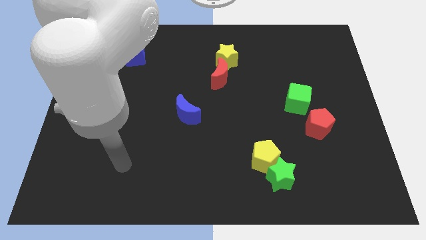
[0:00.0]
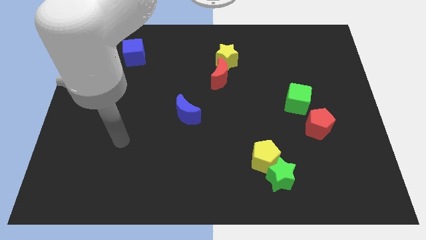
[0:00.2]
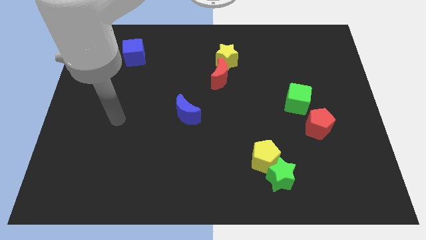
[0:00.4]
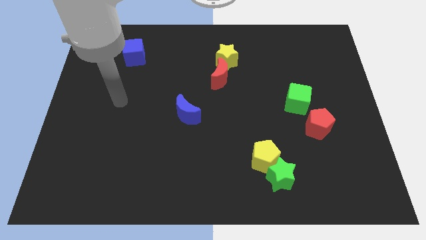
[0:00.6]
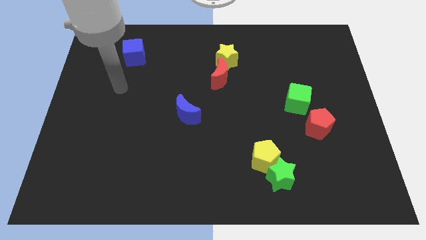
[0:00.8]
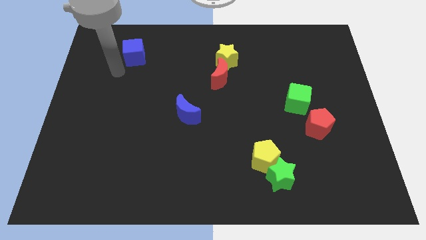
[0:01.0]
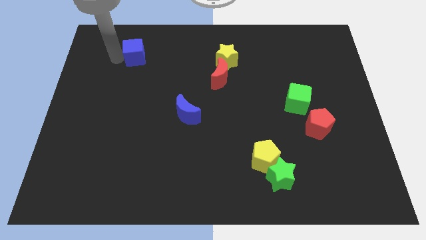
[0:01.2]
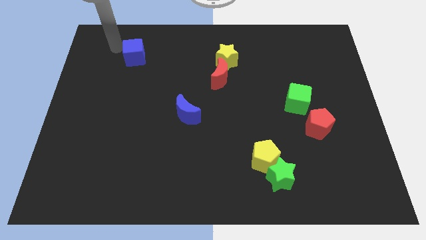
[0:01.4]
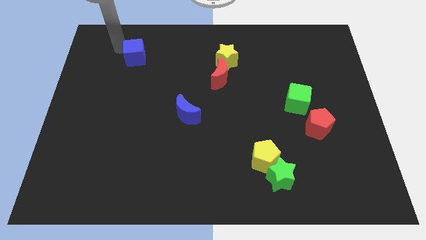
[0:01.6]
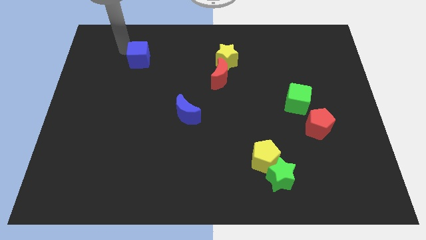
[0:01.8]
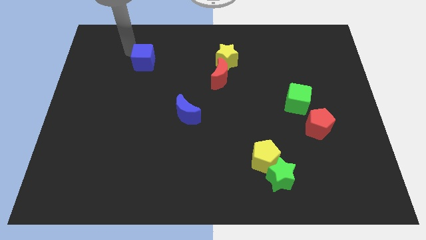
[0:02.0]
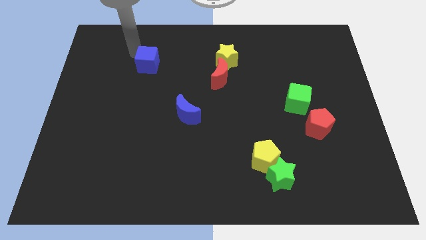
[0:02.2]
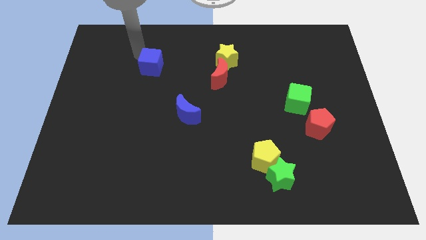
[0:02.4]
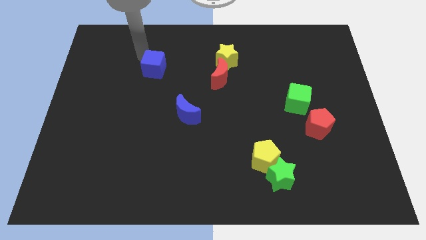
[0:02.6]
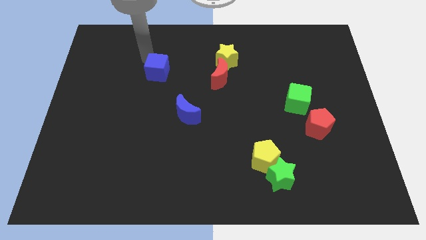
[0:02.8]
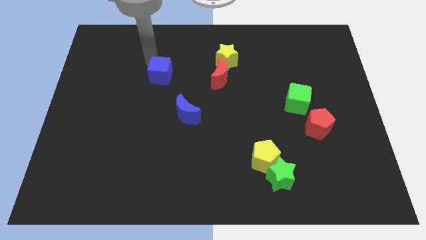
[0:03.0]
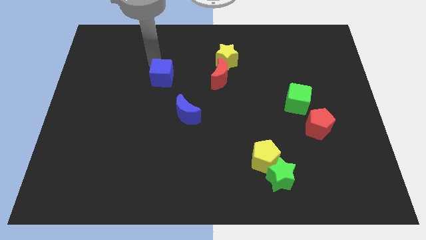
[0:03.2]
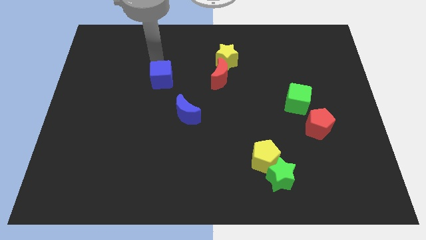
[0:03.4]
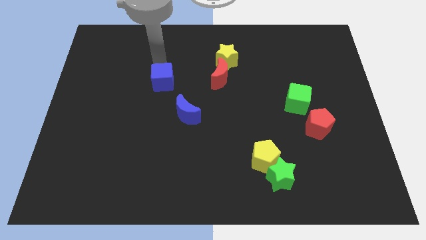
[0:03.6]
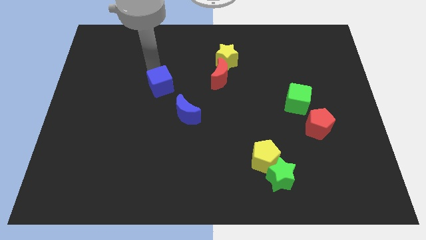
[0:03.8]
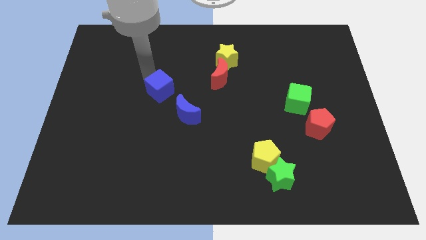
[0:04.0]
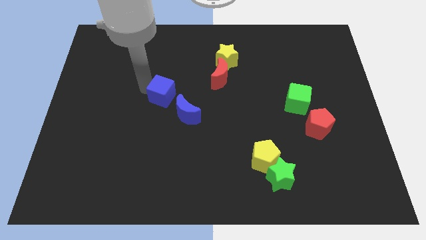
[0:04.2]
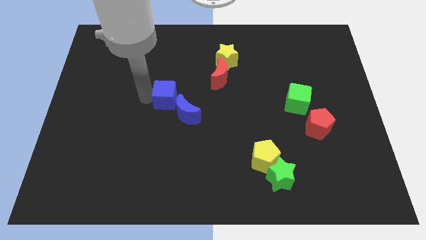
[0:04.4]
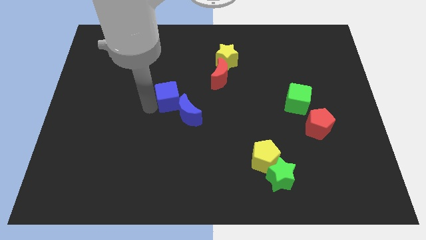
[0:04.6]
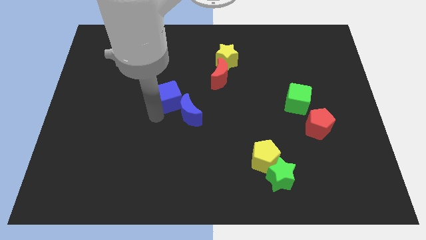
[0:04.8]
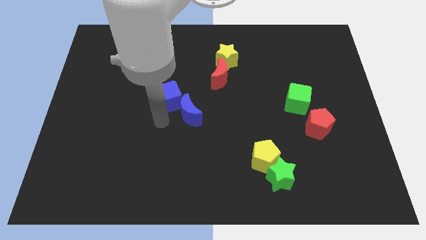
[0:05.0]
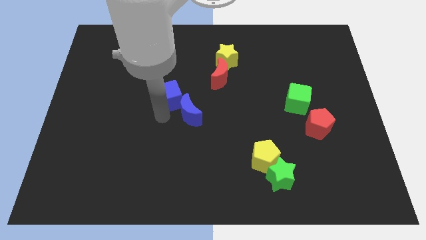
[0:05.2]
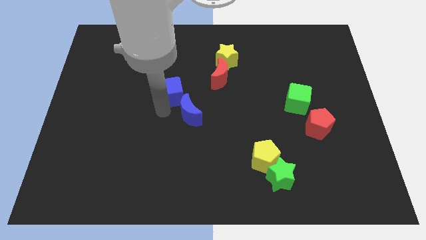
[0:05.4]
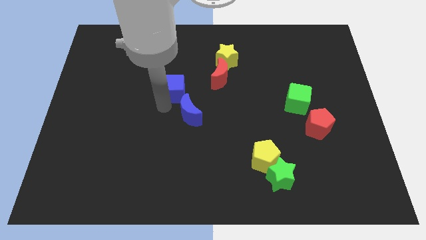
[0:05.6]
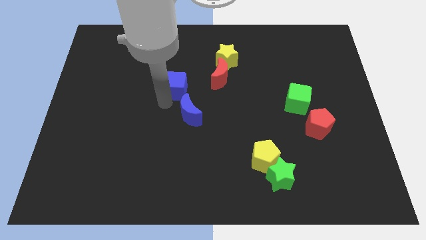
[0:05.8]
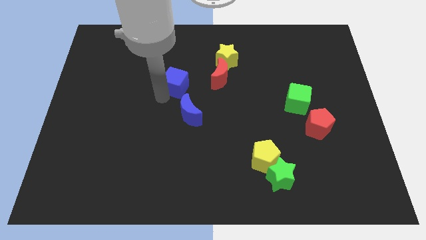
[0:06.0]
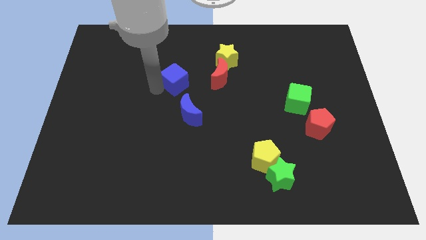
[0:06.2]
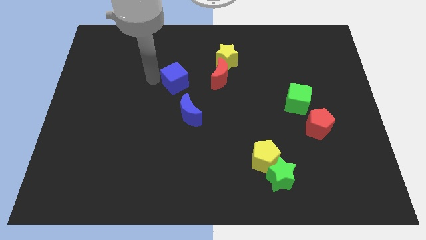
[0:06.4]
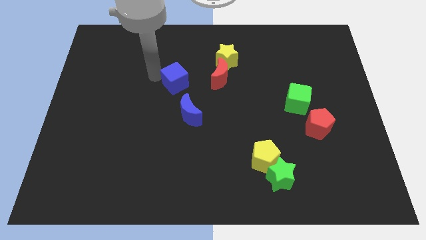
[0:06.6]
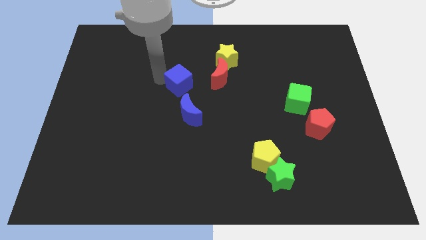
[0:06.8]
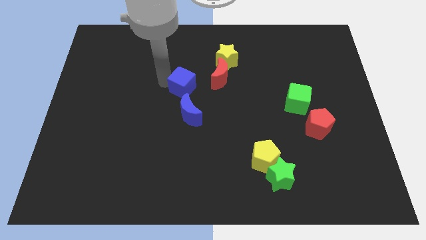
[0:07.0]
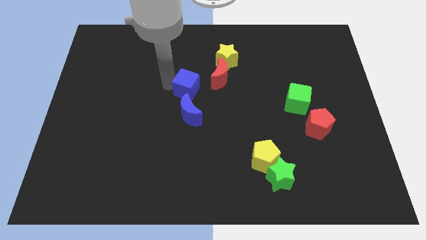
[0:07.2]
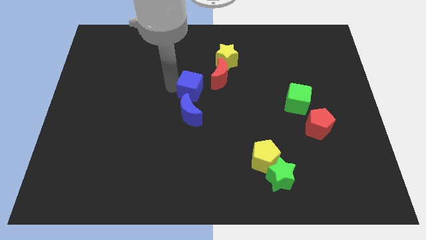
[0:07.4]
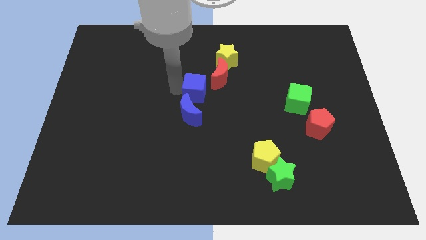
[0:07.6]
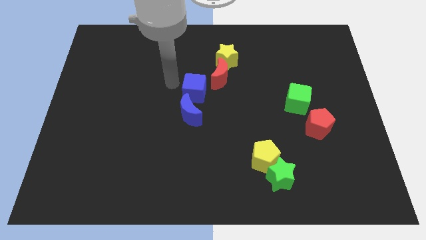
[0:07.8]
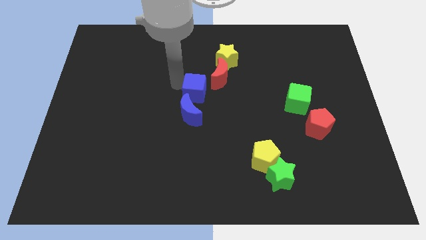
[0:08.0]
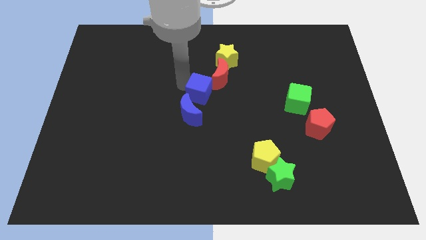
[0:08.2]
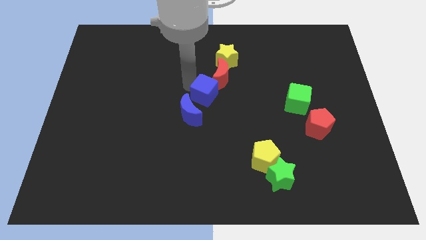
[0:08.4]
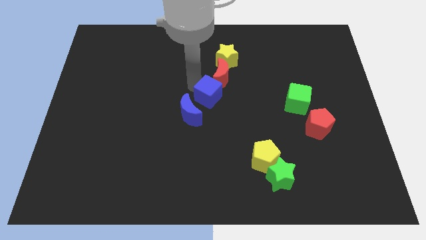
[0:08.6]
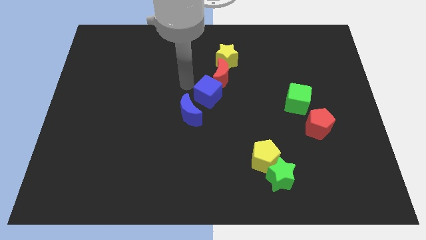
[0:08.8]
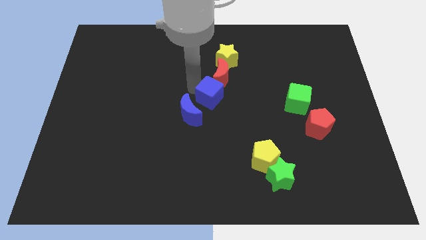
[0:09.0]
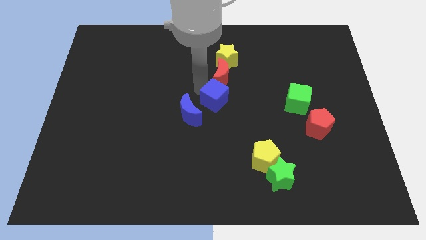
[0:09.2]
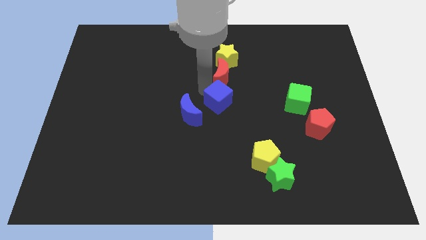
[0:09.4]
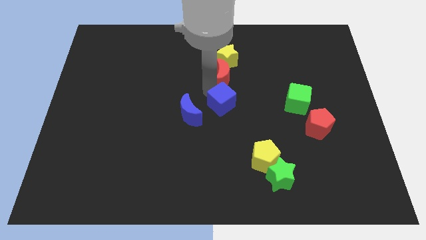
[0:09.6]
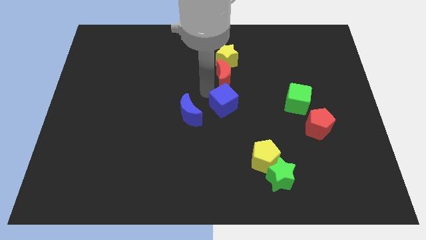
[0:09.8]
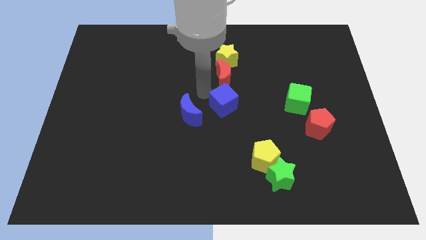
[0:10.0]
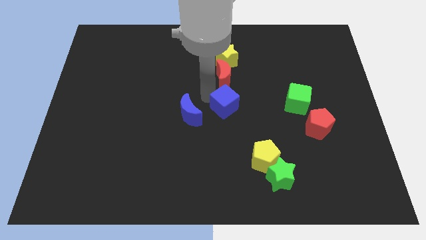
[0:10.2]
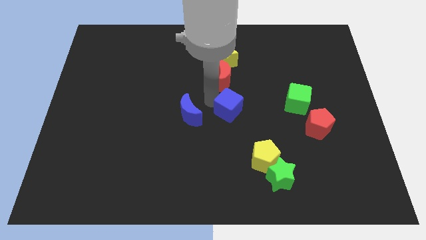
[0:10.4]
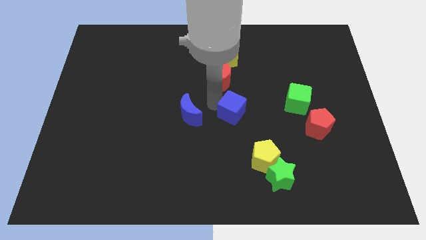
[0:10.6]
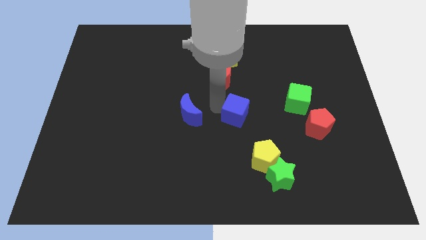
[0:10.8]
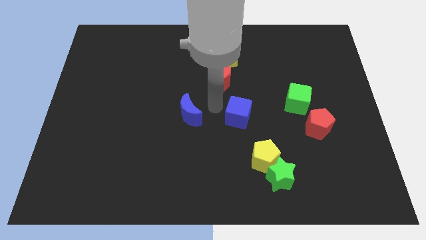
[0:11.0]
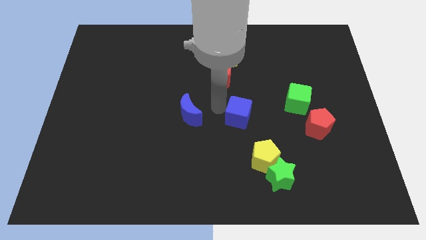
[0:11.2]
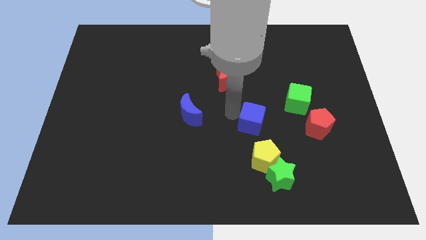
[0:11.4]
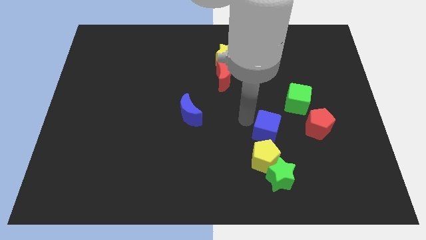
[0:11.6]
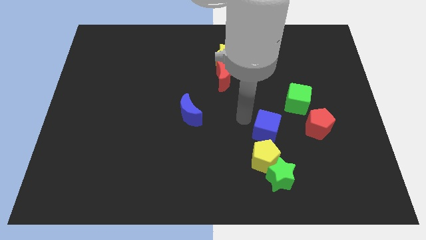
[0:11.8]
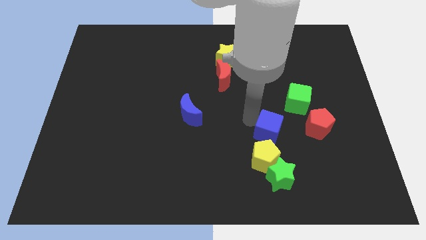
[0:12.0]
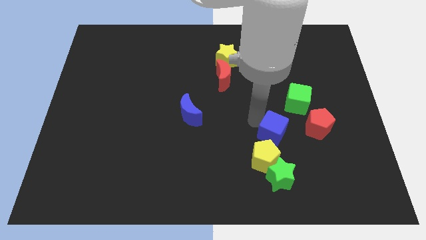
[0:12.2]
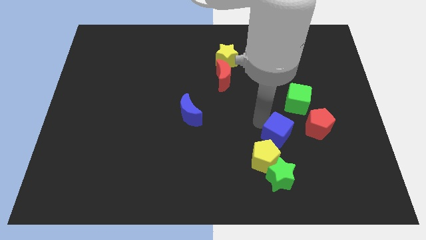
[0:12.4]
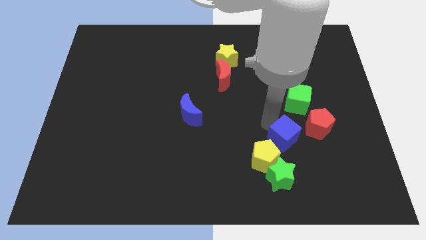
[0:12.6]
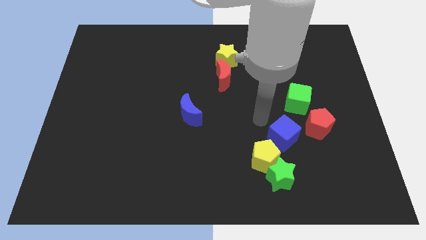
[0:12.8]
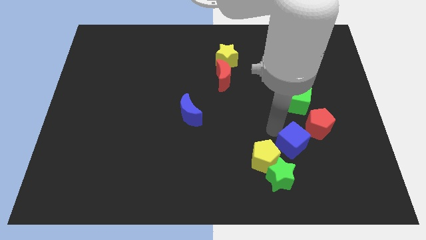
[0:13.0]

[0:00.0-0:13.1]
put the blue cube just right of the yellow pentagon

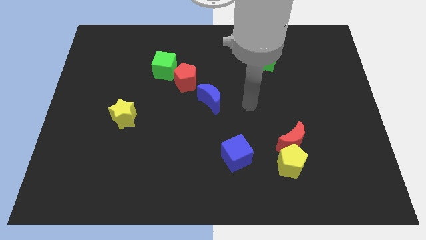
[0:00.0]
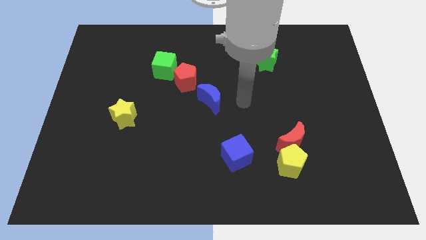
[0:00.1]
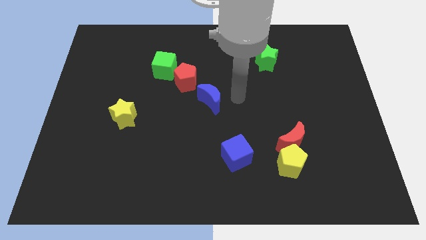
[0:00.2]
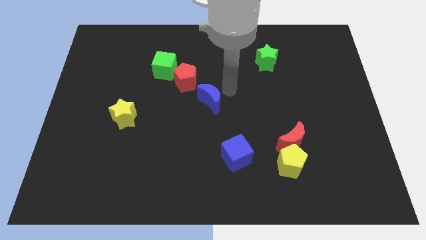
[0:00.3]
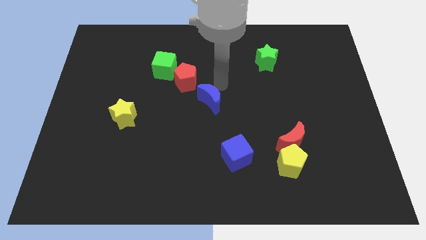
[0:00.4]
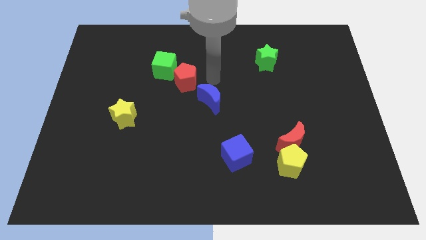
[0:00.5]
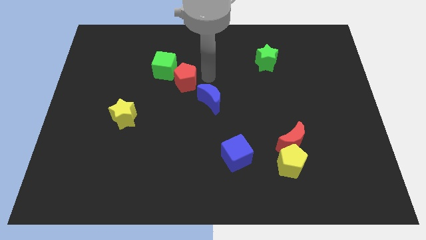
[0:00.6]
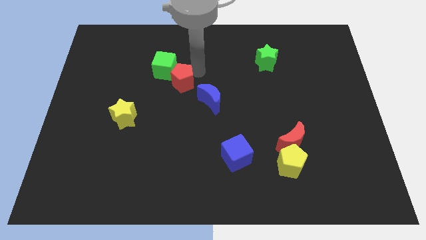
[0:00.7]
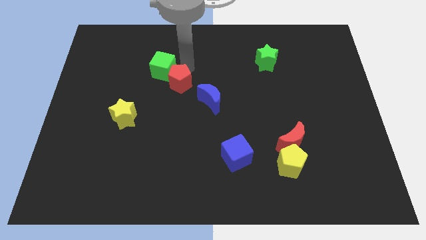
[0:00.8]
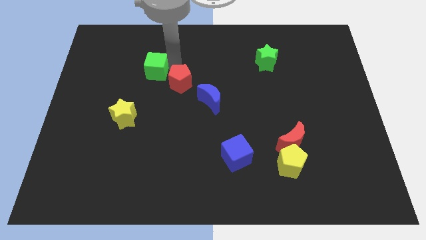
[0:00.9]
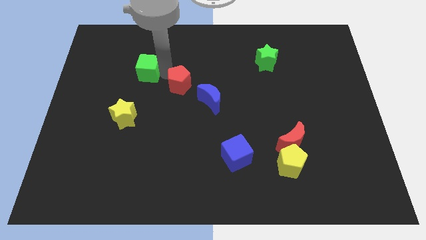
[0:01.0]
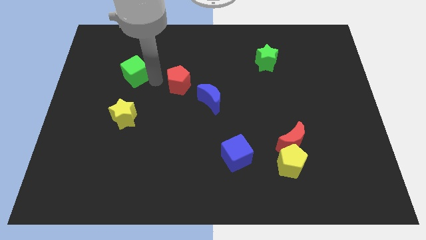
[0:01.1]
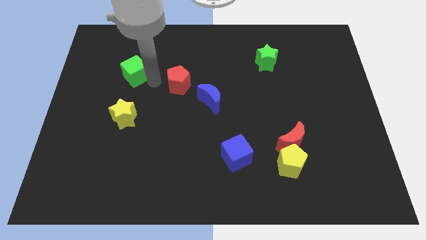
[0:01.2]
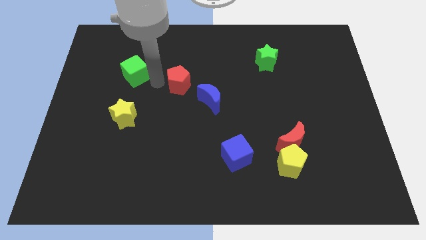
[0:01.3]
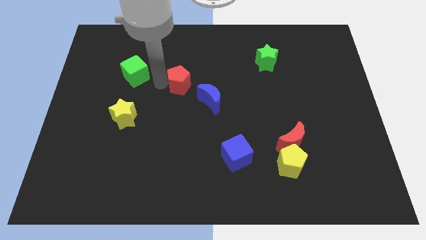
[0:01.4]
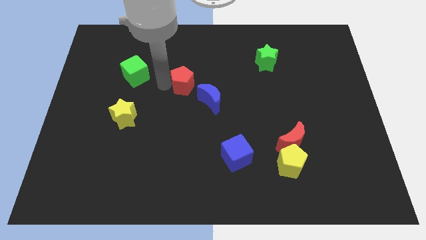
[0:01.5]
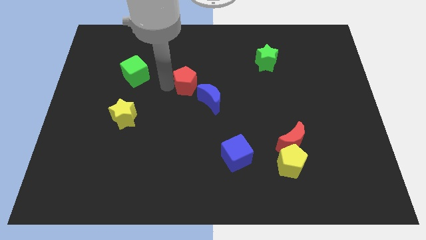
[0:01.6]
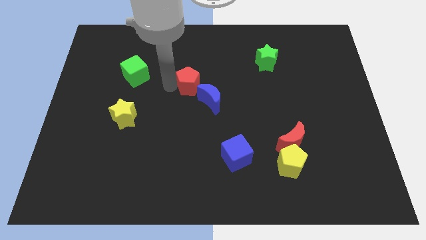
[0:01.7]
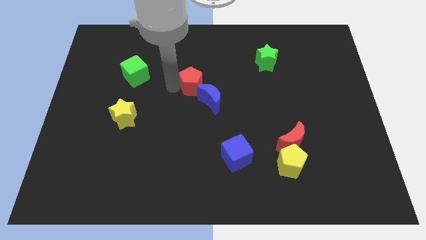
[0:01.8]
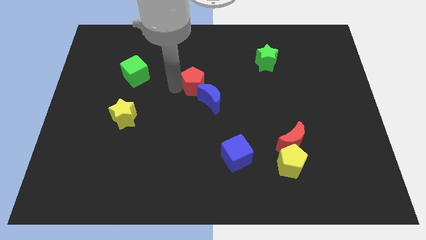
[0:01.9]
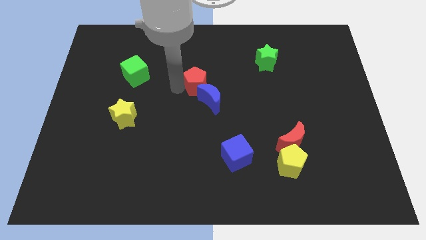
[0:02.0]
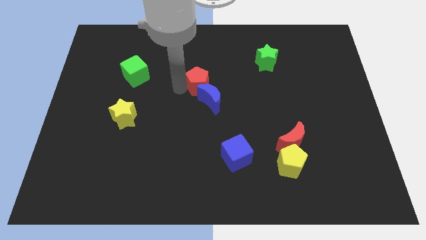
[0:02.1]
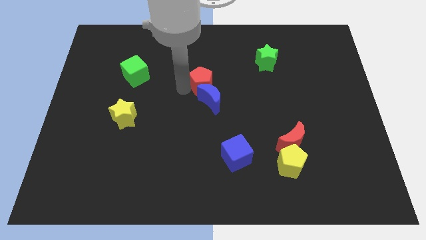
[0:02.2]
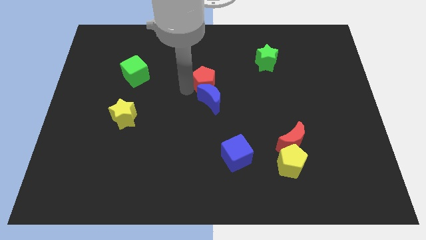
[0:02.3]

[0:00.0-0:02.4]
put the red pentagon to the top right of the blue moon
